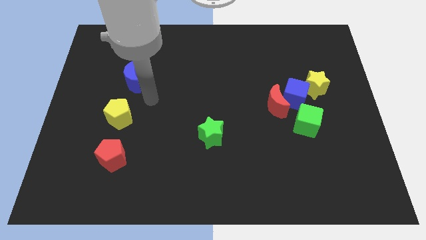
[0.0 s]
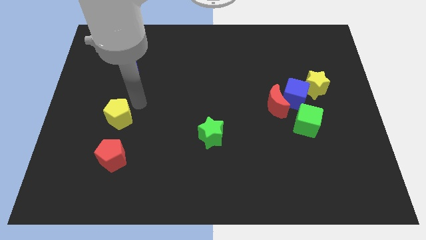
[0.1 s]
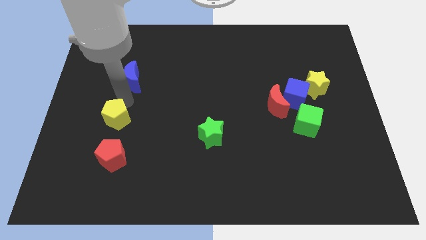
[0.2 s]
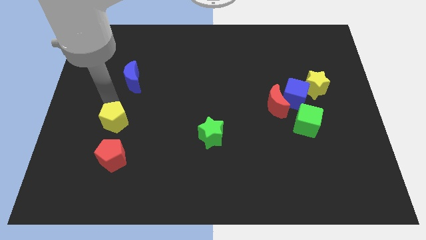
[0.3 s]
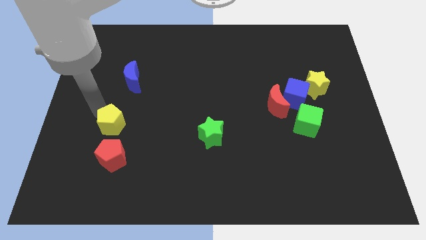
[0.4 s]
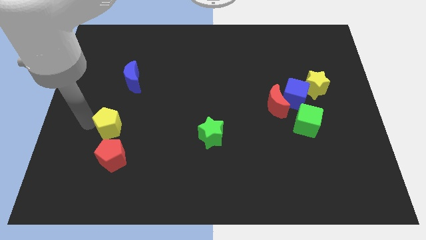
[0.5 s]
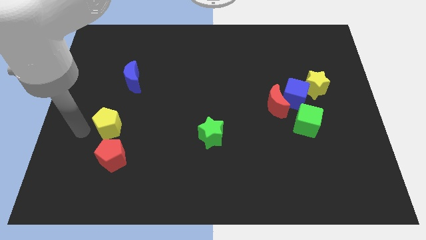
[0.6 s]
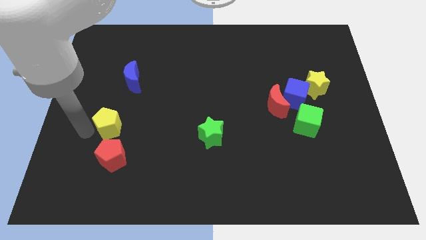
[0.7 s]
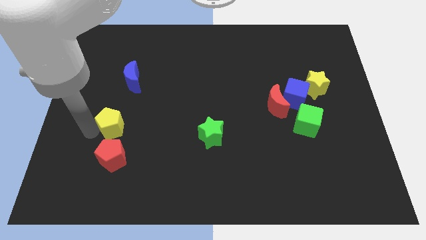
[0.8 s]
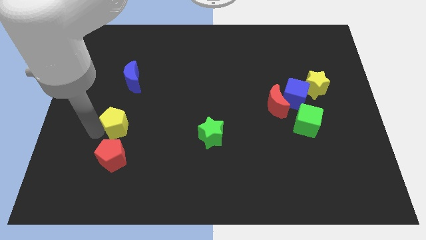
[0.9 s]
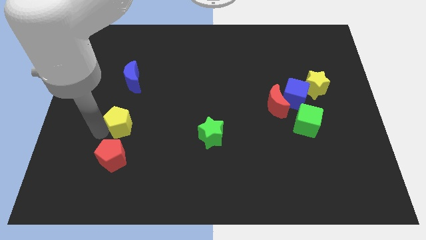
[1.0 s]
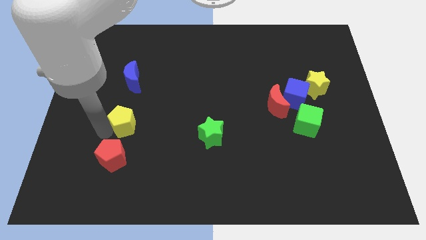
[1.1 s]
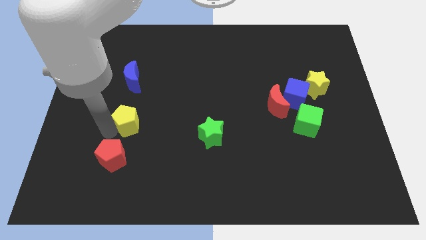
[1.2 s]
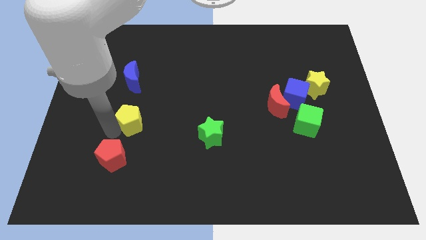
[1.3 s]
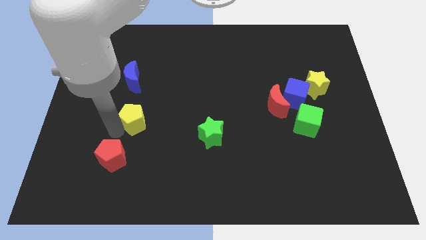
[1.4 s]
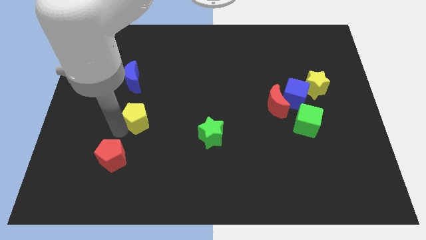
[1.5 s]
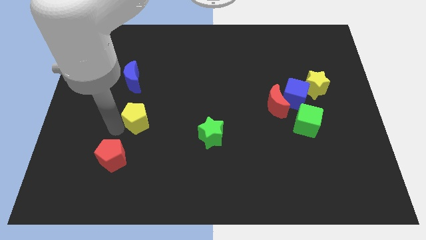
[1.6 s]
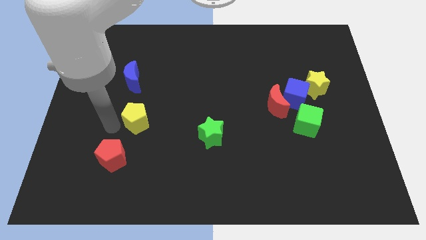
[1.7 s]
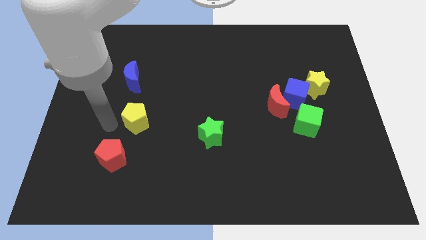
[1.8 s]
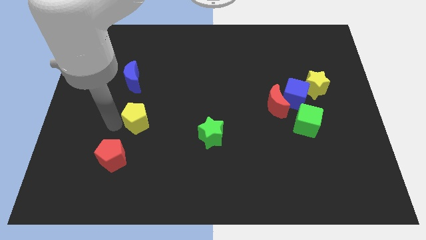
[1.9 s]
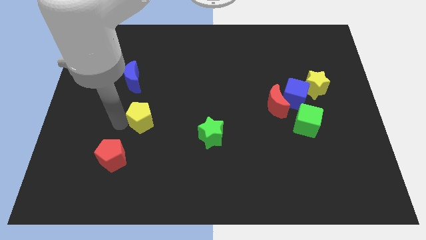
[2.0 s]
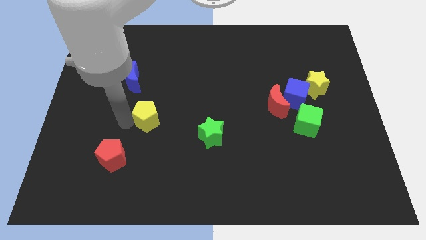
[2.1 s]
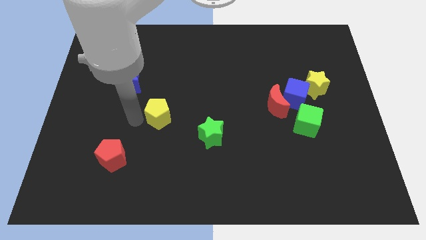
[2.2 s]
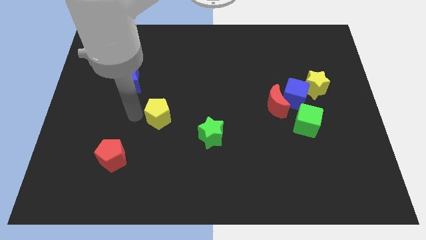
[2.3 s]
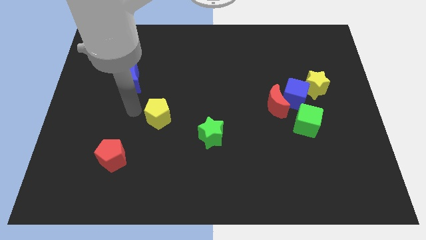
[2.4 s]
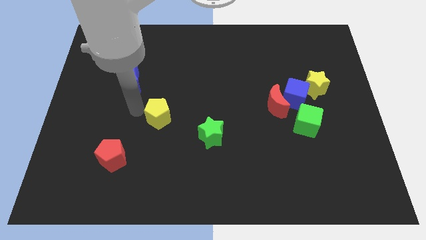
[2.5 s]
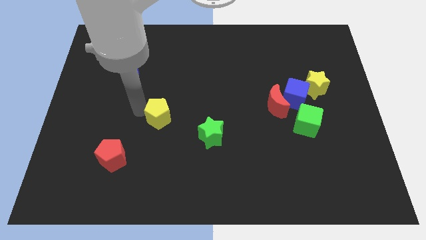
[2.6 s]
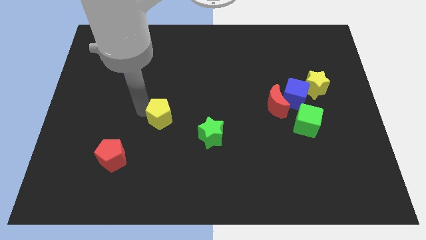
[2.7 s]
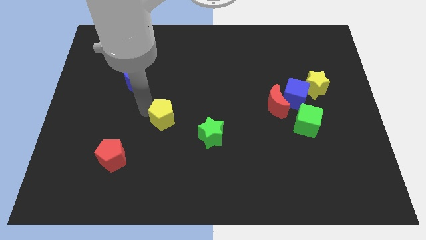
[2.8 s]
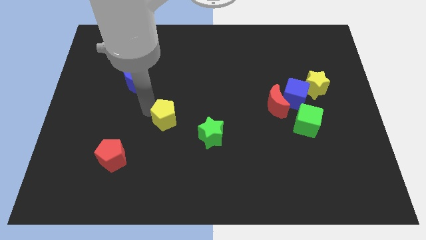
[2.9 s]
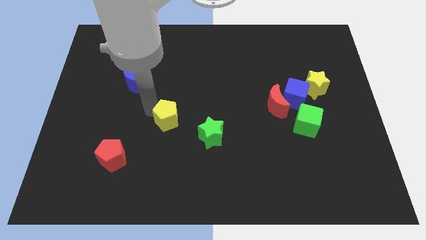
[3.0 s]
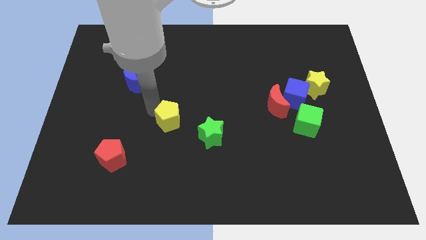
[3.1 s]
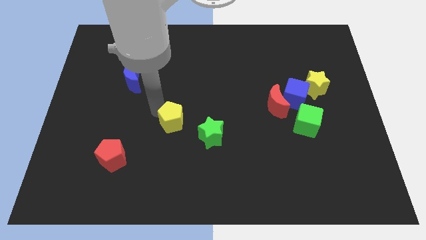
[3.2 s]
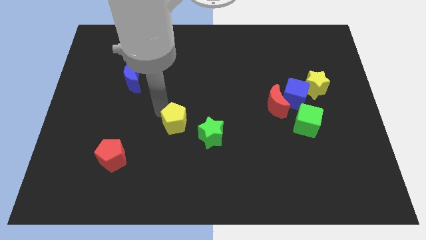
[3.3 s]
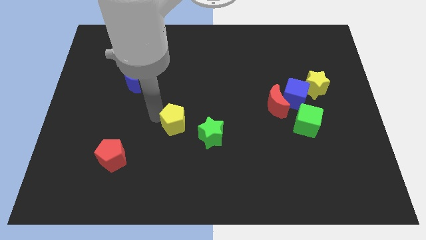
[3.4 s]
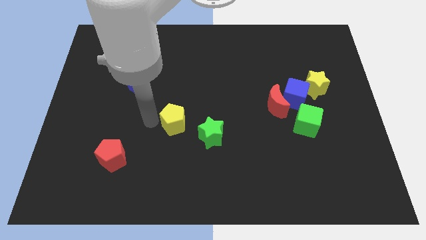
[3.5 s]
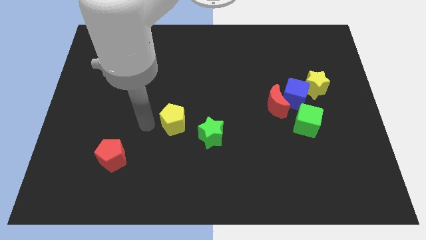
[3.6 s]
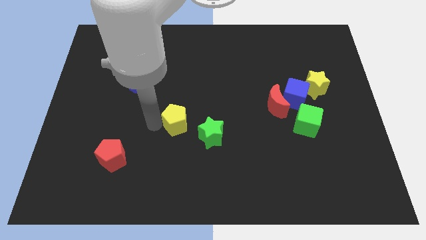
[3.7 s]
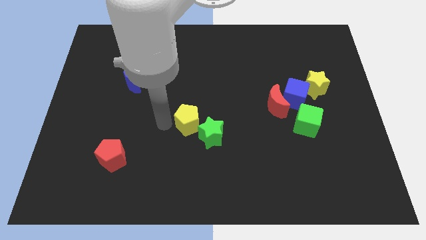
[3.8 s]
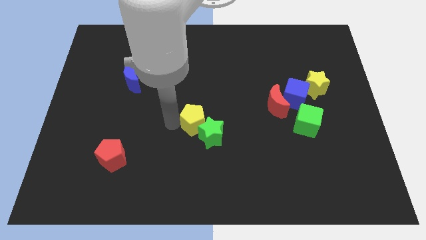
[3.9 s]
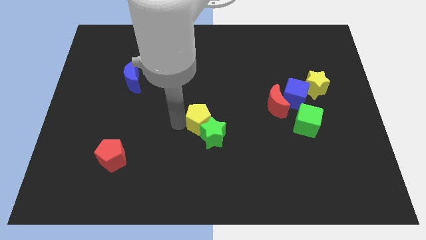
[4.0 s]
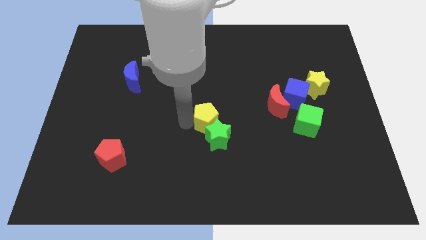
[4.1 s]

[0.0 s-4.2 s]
move the yellow pentagon right

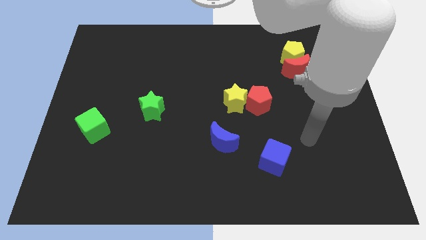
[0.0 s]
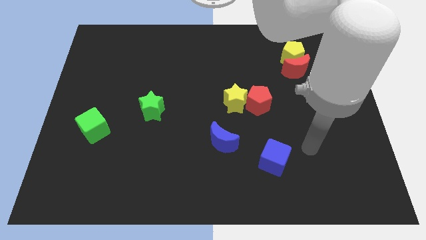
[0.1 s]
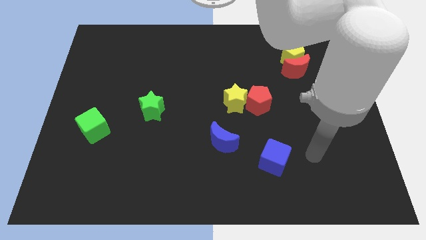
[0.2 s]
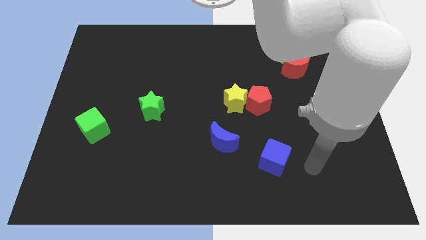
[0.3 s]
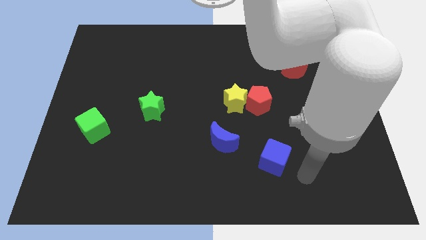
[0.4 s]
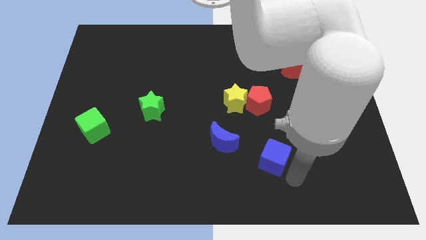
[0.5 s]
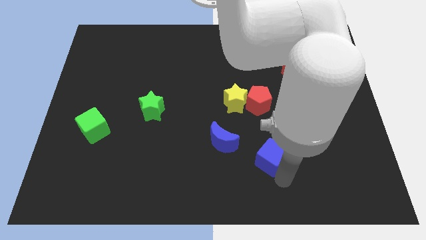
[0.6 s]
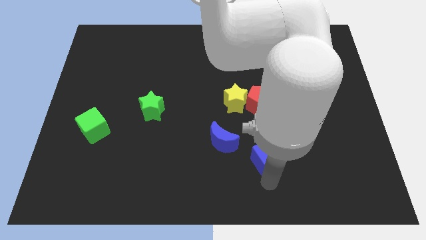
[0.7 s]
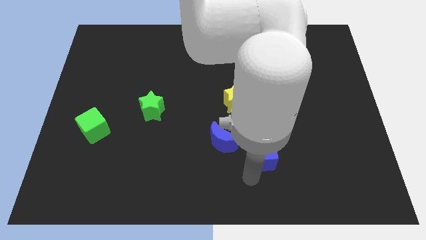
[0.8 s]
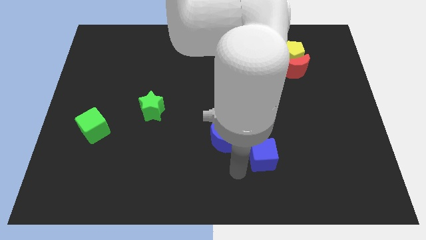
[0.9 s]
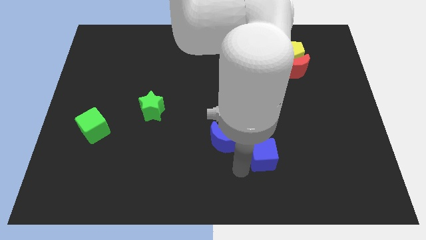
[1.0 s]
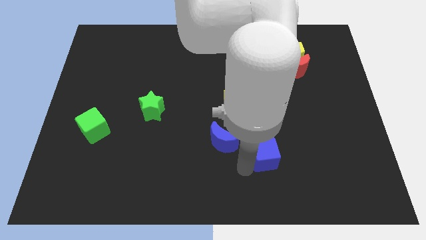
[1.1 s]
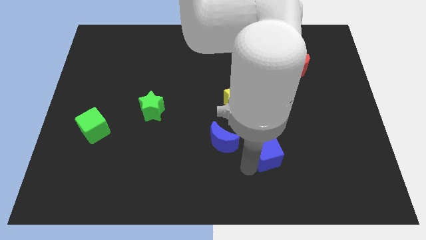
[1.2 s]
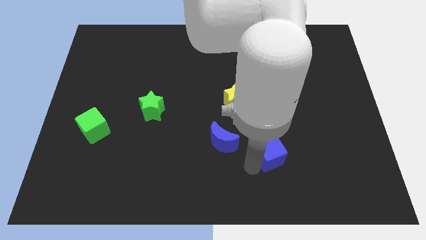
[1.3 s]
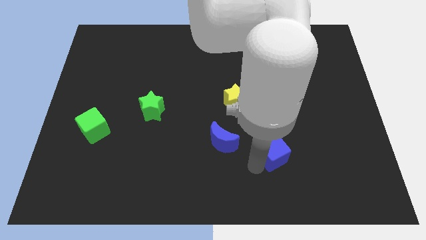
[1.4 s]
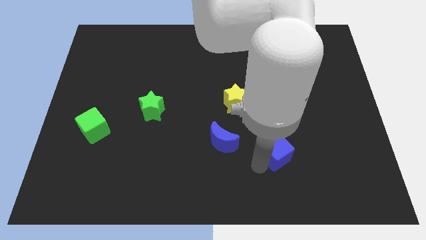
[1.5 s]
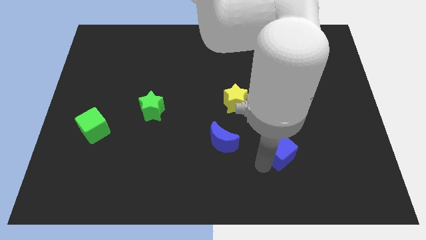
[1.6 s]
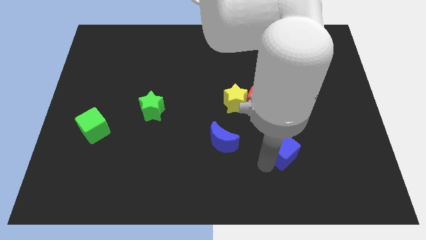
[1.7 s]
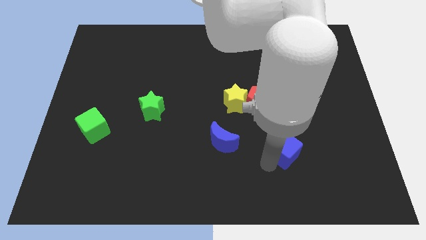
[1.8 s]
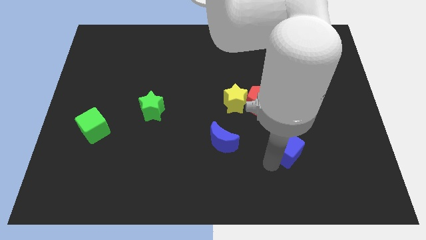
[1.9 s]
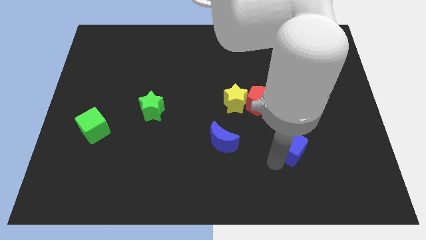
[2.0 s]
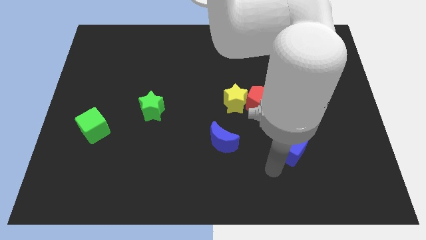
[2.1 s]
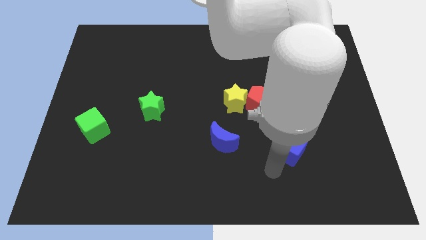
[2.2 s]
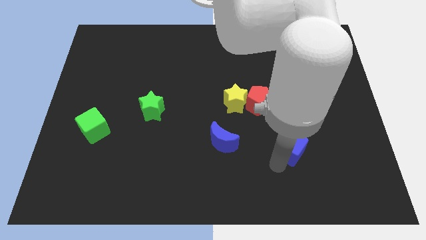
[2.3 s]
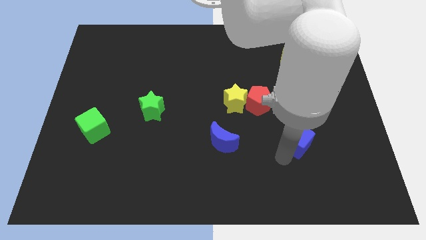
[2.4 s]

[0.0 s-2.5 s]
slightly push the blue cube up and then to the right

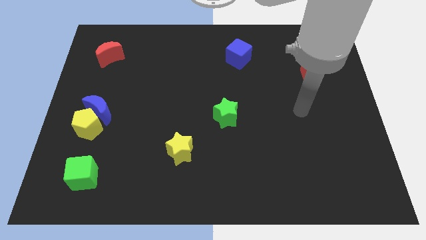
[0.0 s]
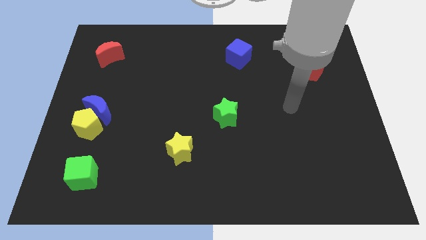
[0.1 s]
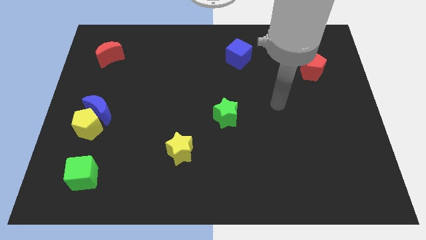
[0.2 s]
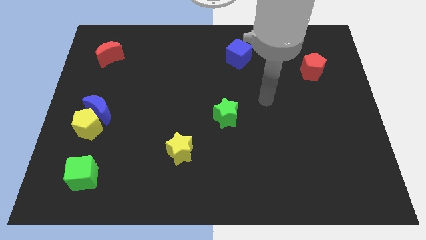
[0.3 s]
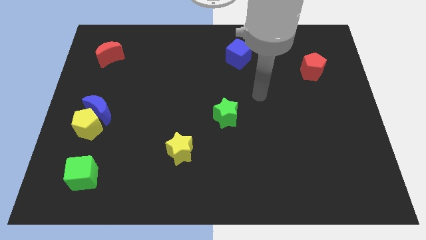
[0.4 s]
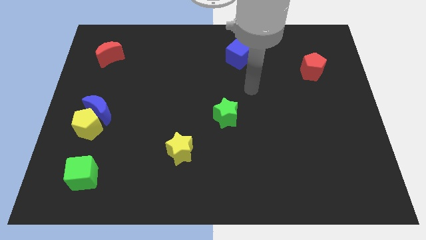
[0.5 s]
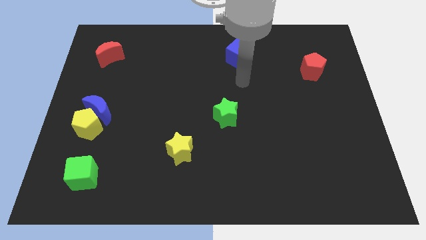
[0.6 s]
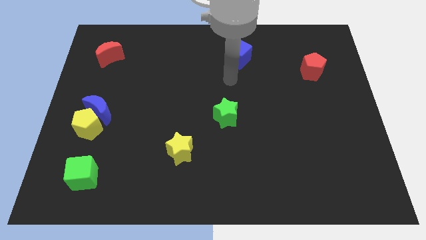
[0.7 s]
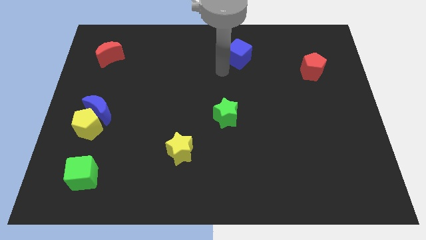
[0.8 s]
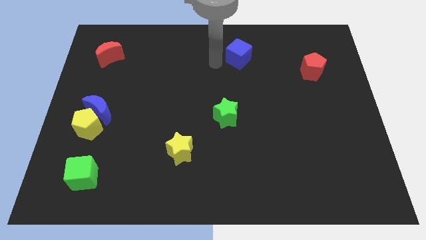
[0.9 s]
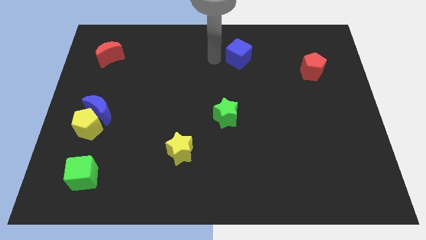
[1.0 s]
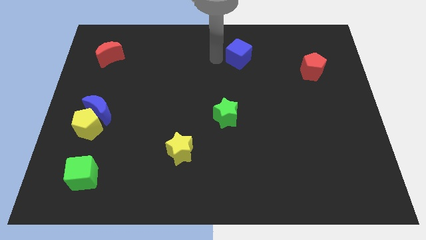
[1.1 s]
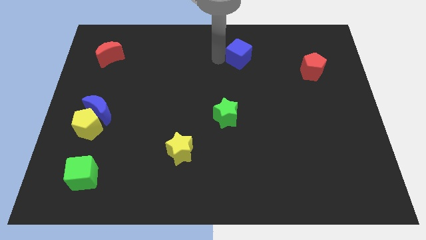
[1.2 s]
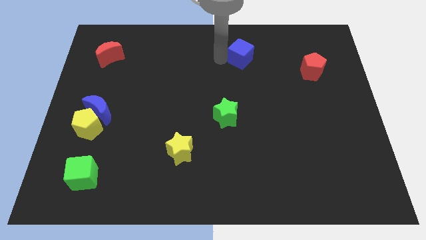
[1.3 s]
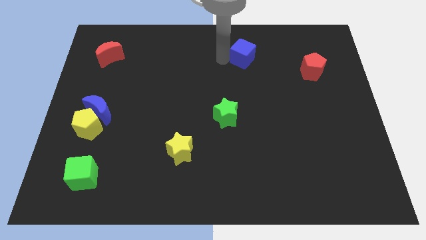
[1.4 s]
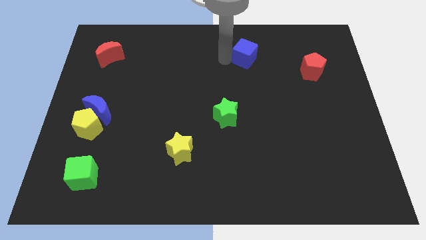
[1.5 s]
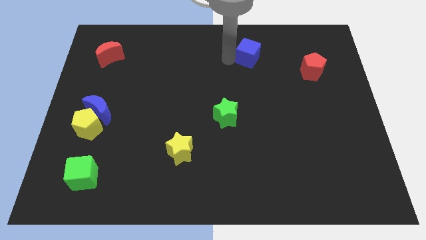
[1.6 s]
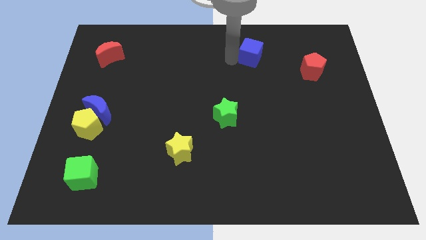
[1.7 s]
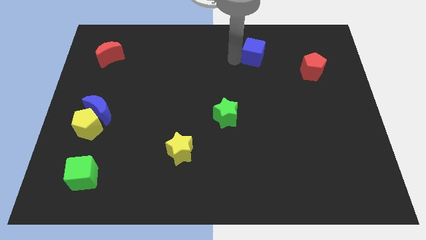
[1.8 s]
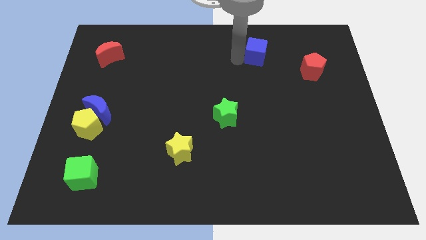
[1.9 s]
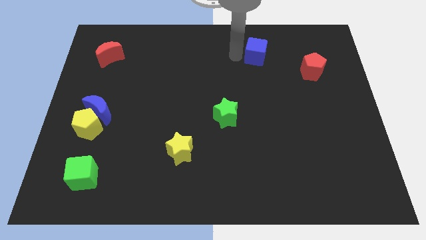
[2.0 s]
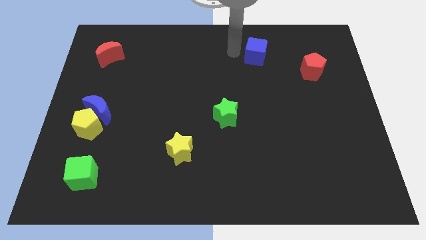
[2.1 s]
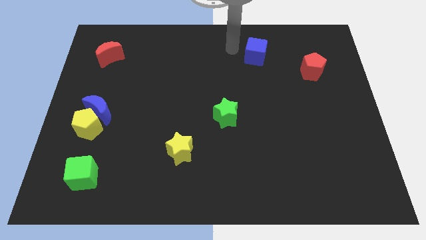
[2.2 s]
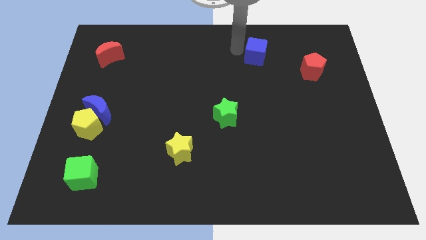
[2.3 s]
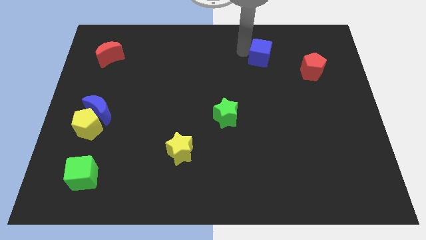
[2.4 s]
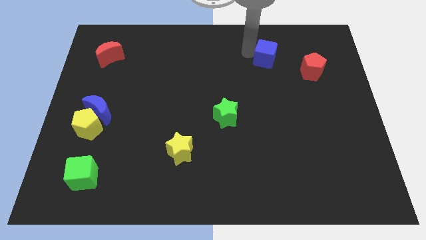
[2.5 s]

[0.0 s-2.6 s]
slide the blue cube to the right somewhat
